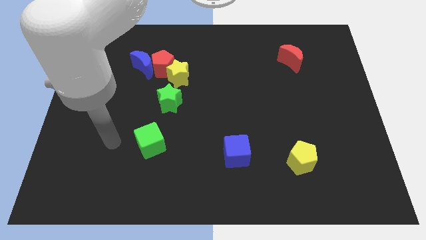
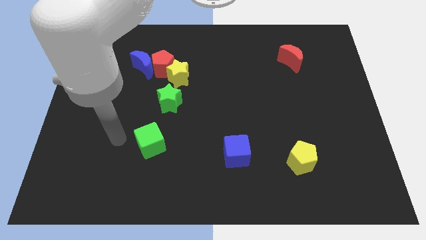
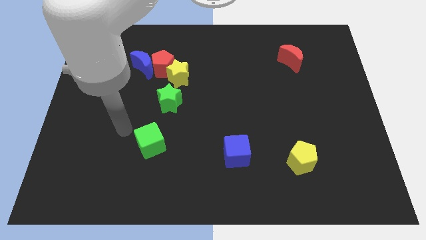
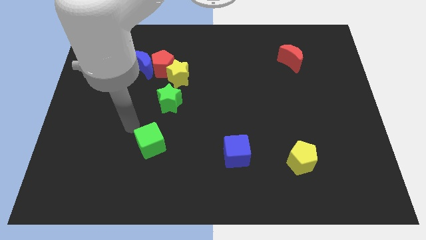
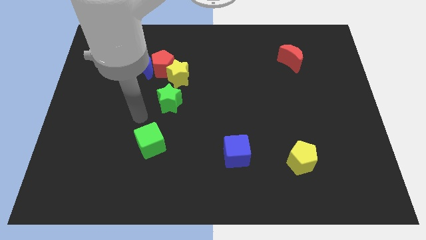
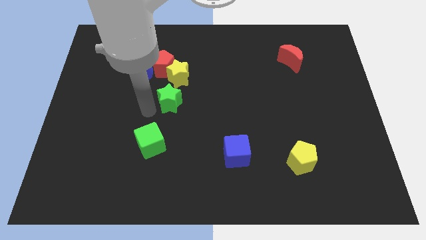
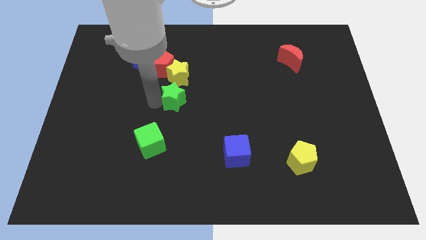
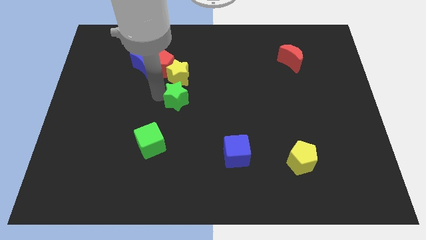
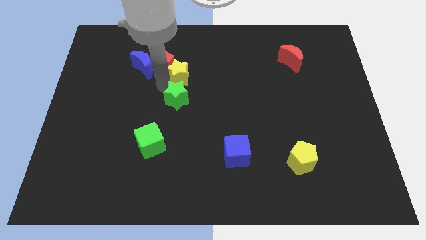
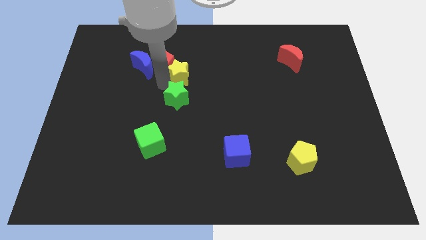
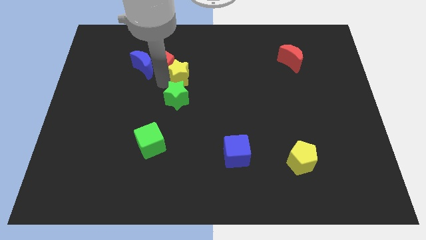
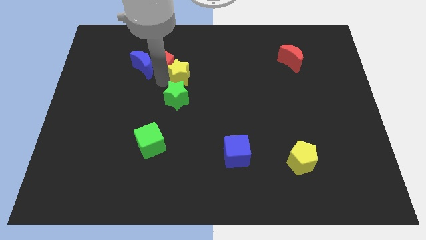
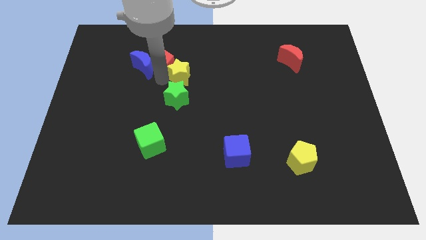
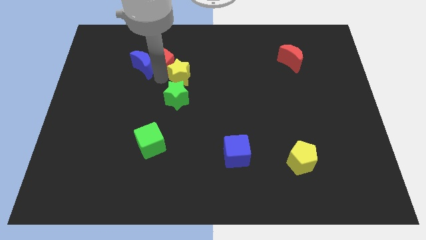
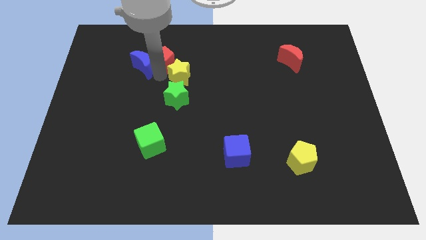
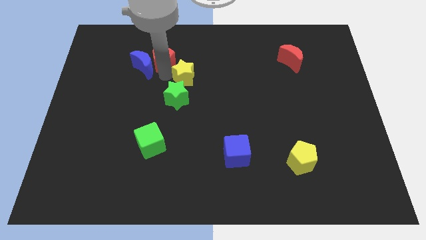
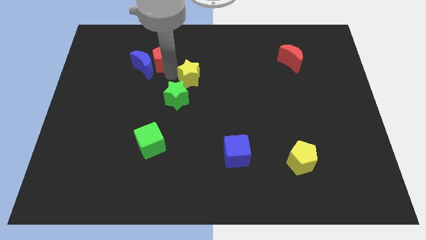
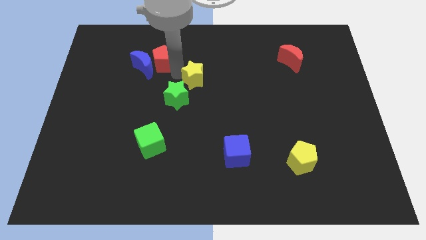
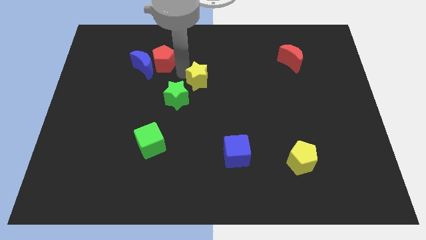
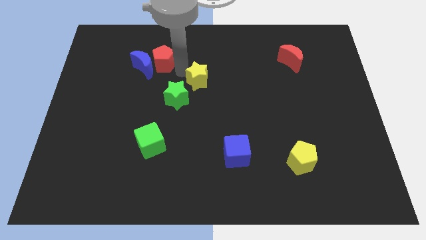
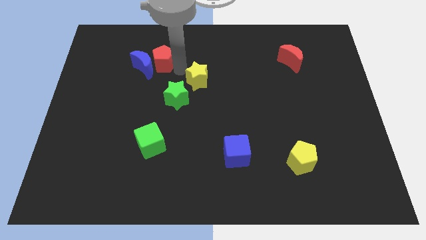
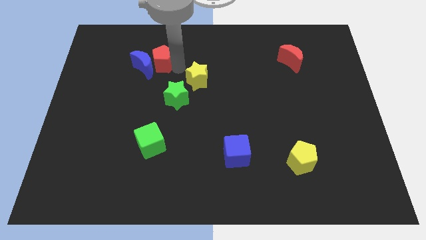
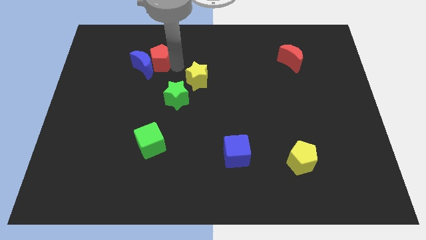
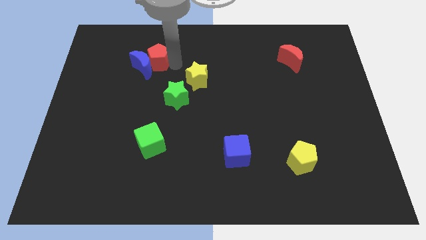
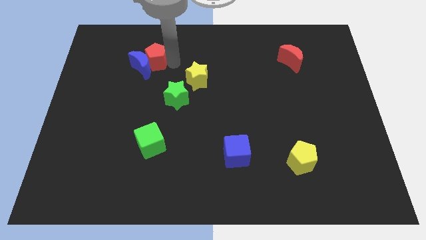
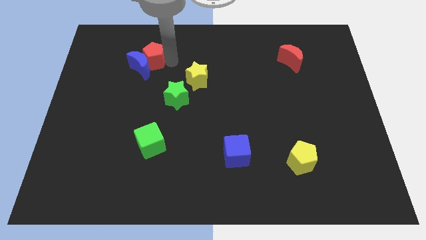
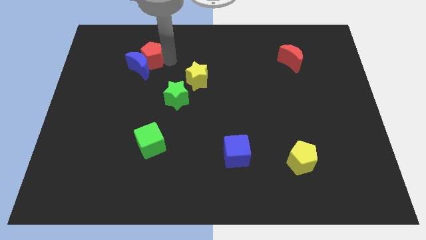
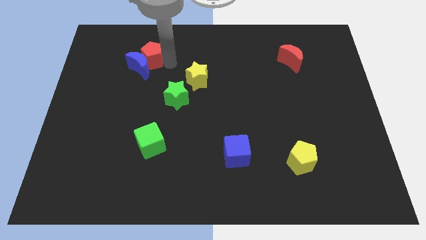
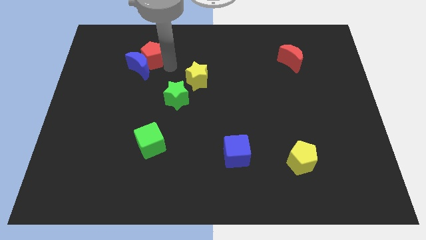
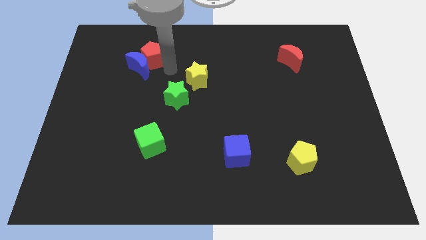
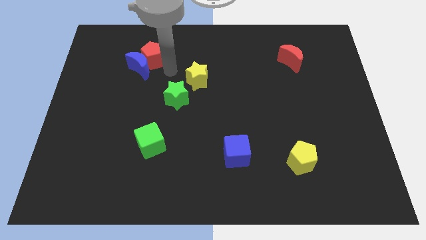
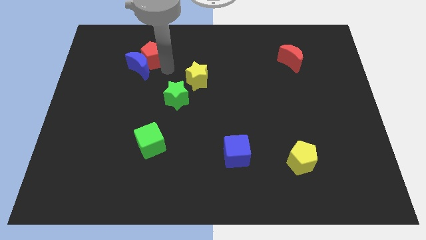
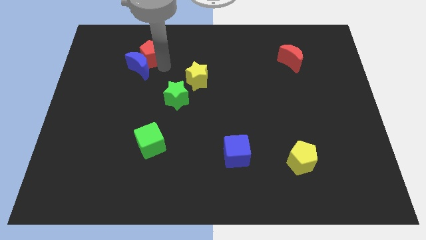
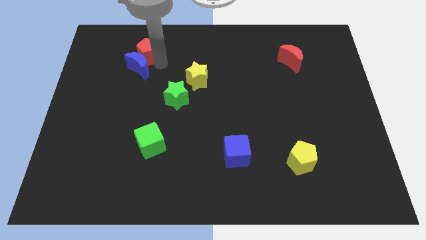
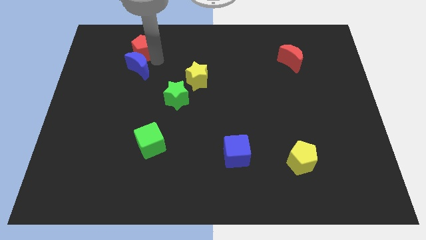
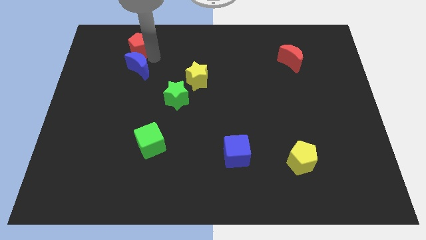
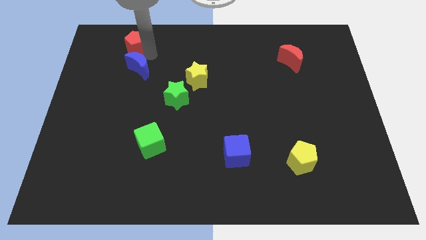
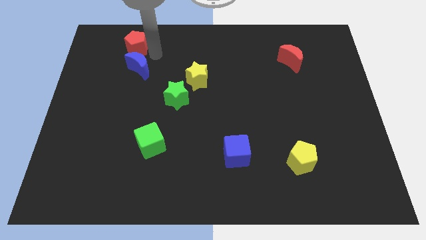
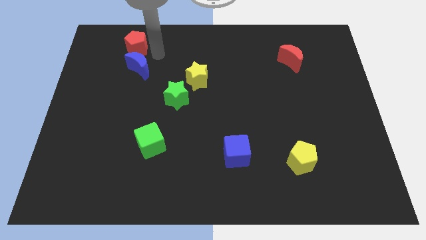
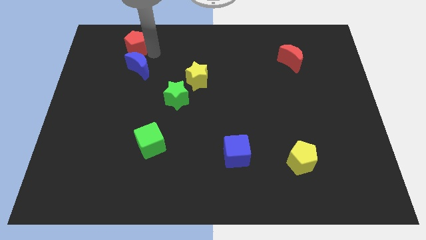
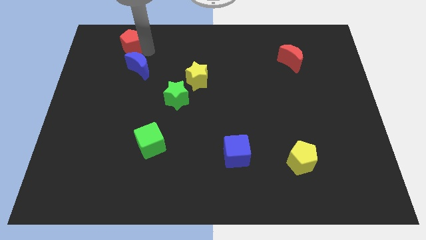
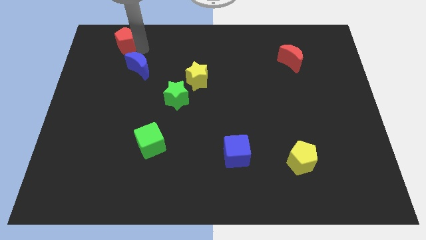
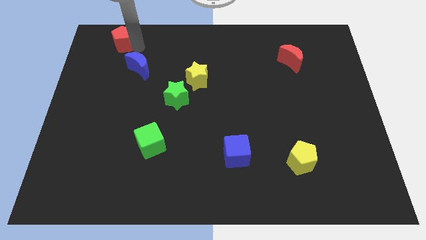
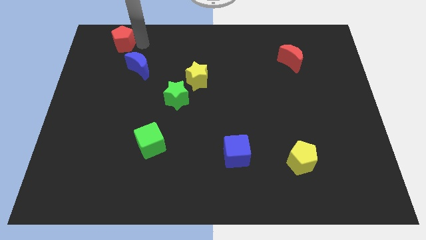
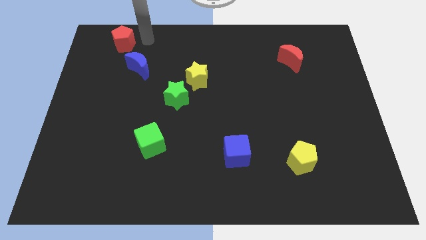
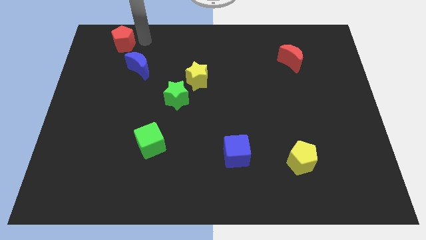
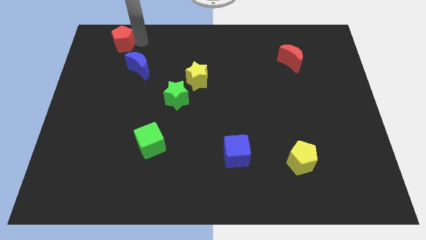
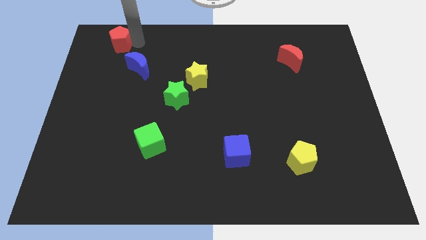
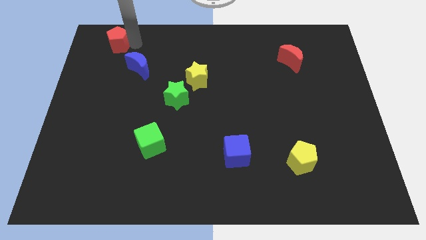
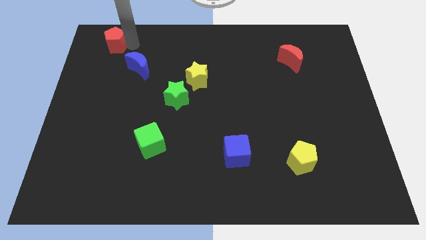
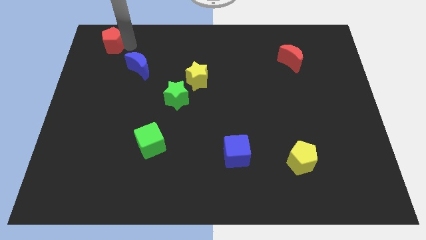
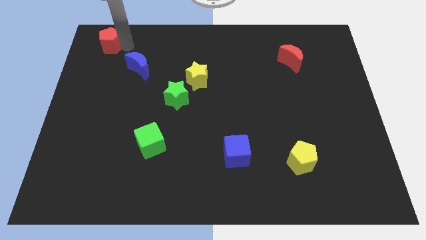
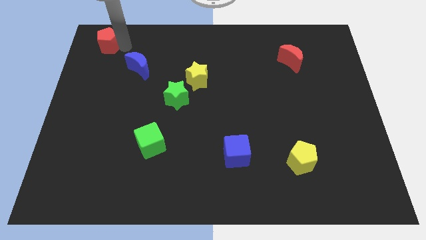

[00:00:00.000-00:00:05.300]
push the red pentagon to the top left

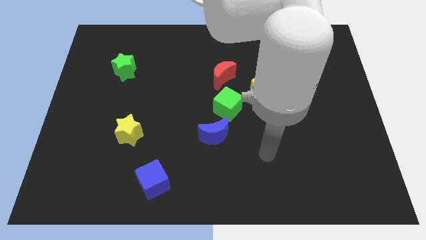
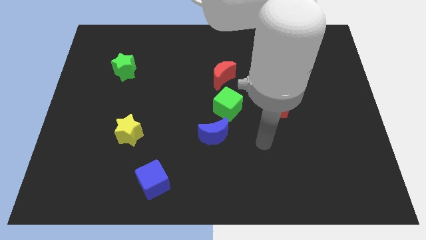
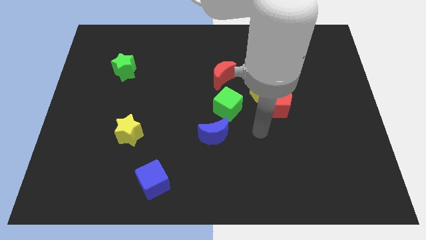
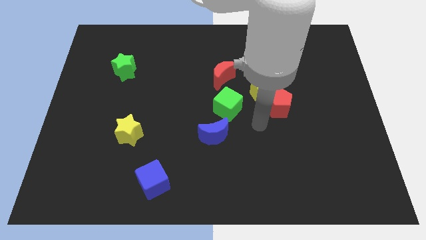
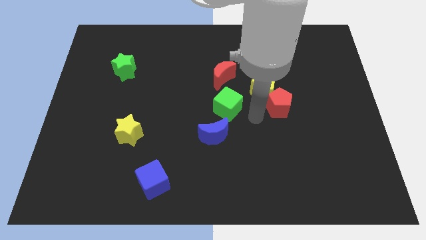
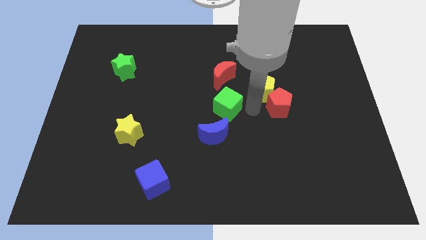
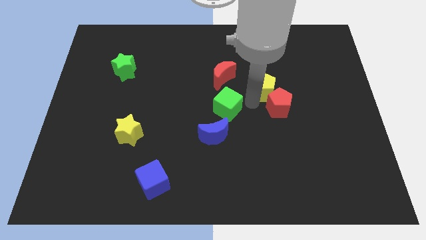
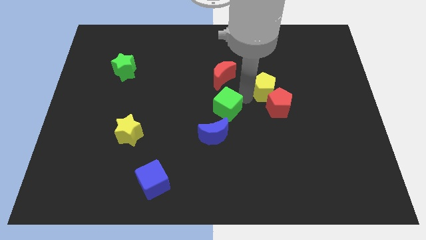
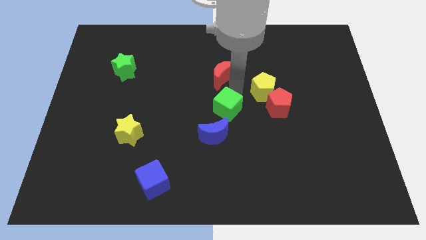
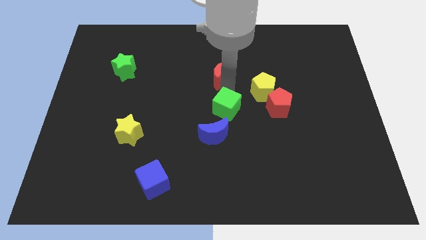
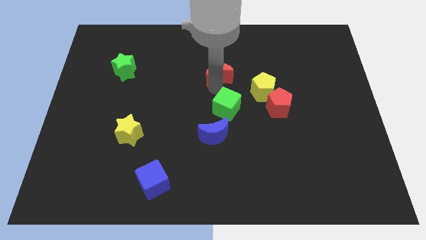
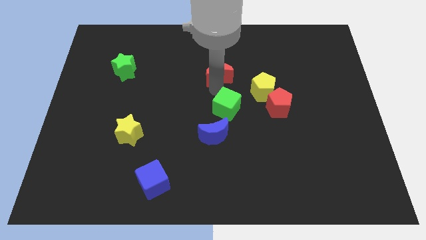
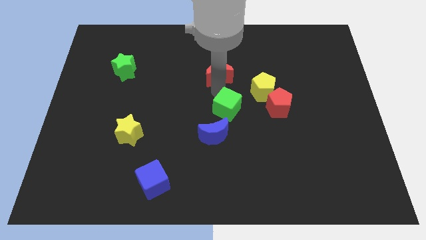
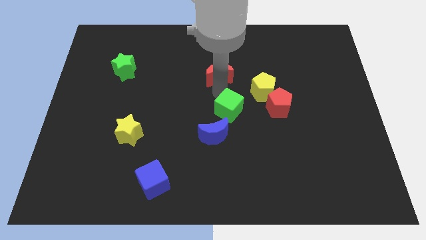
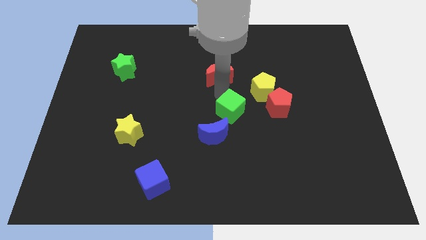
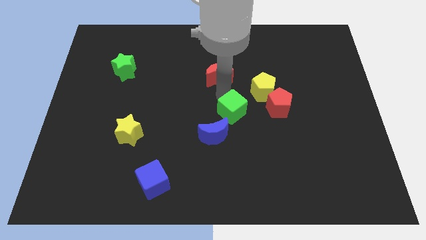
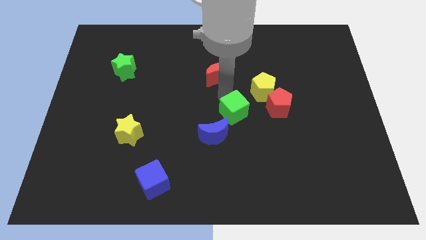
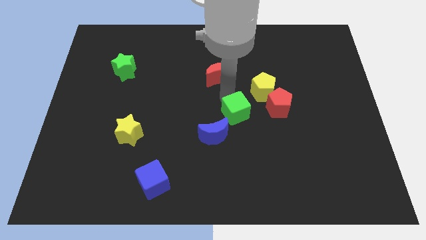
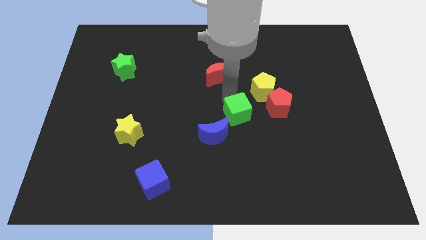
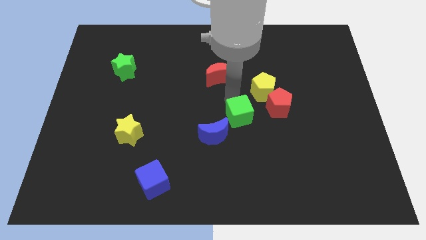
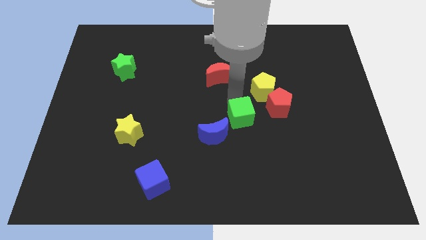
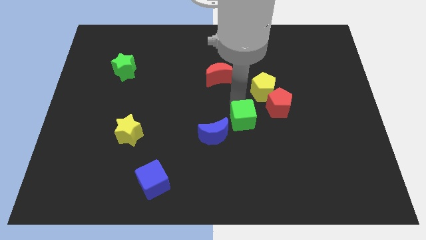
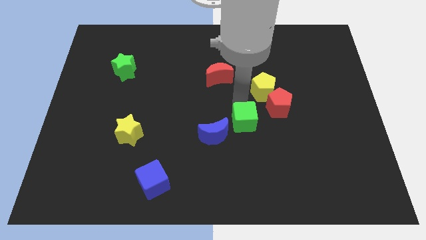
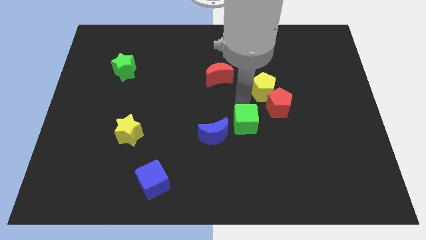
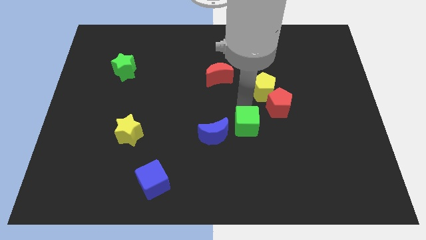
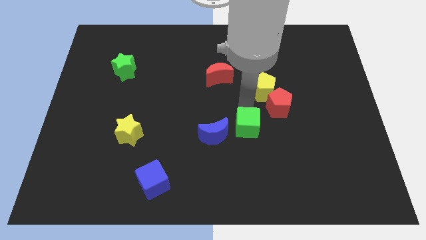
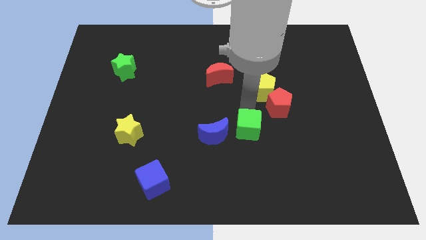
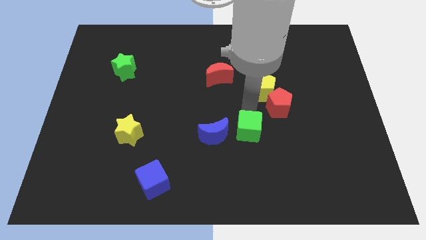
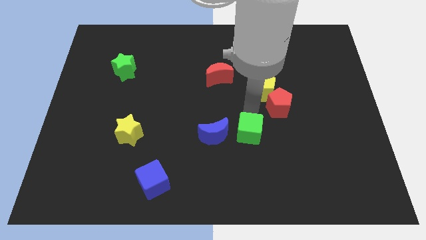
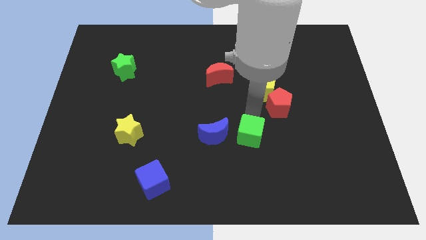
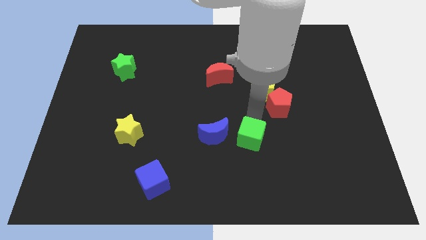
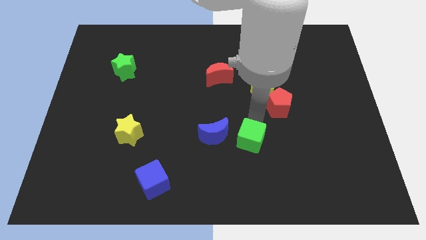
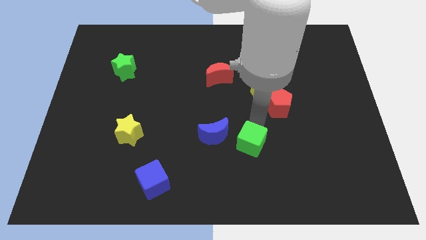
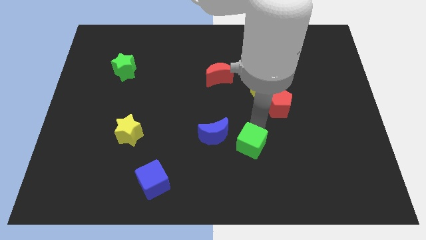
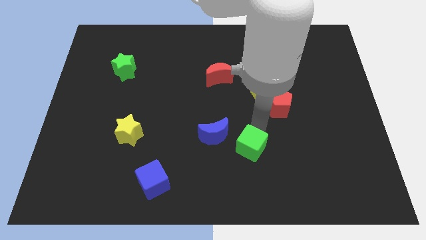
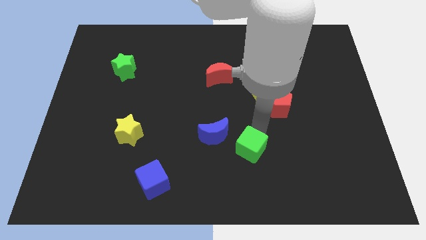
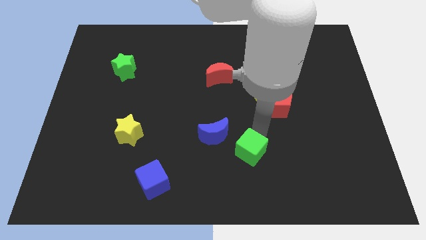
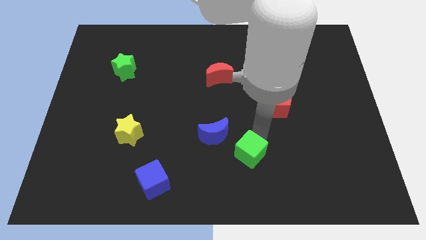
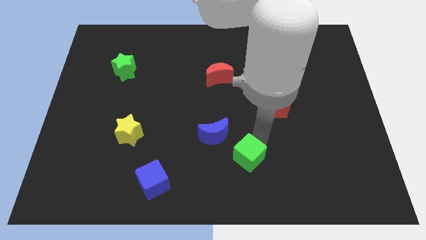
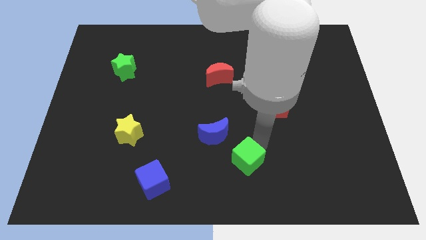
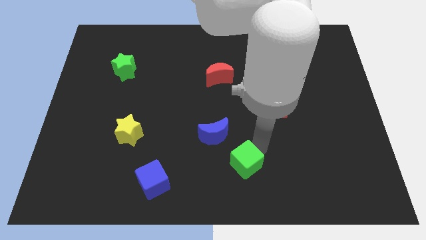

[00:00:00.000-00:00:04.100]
slide the green cube to the bottom side
